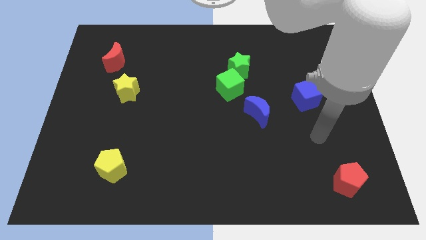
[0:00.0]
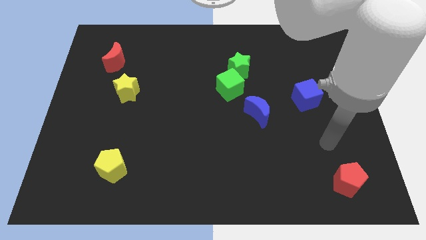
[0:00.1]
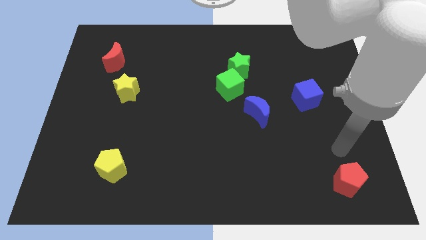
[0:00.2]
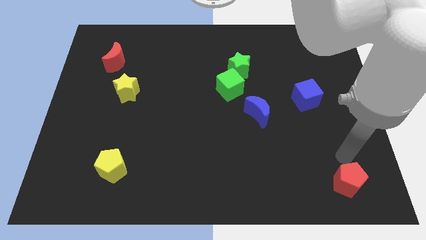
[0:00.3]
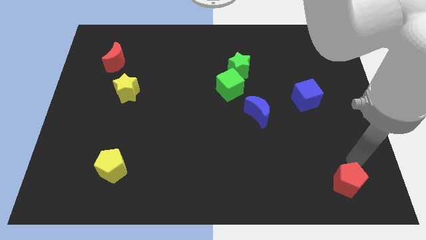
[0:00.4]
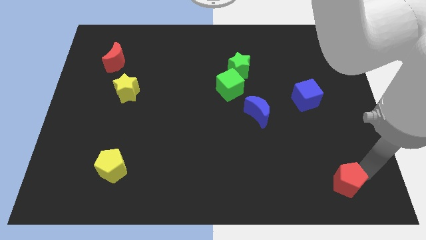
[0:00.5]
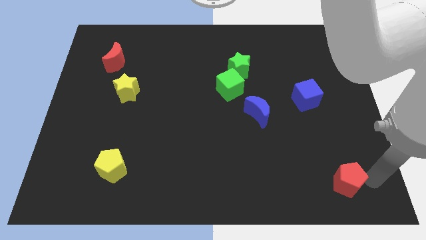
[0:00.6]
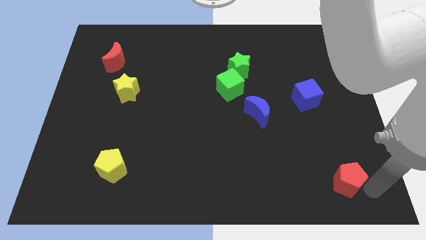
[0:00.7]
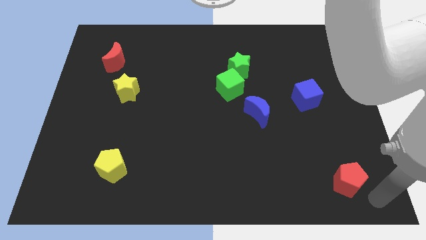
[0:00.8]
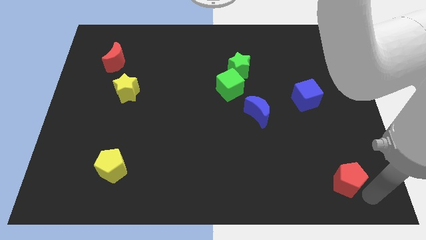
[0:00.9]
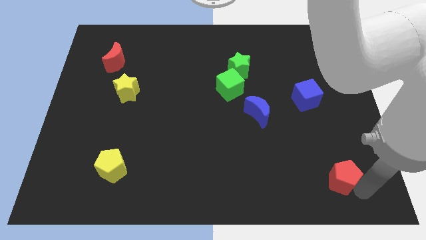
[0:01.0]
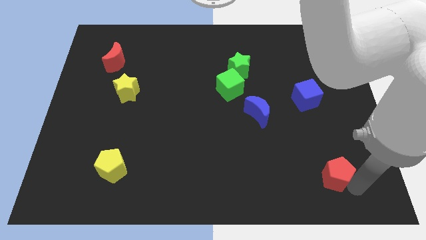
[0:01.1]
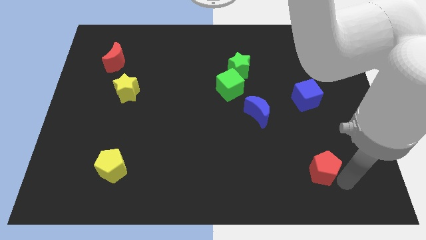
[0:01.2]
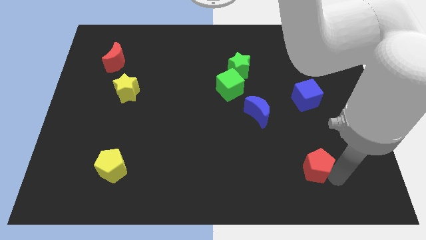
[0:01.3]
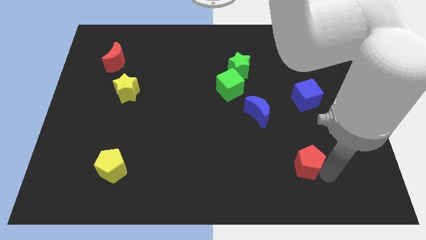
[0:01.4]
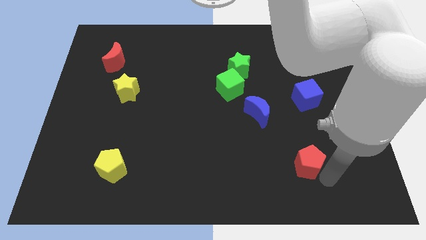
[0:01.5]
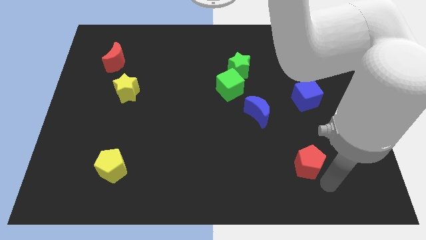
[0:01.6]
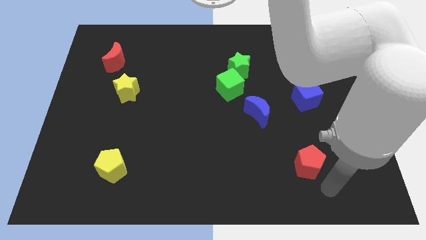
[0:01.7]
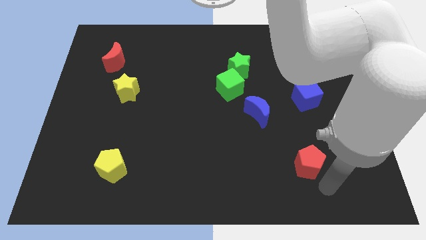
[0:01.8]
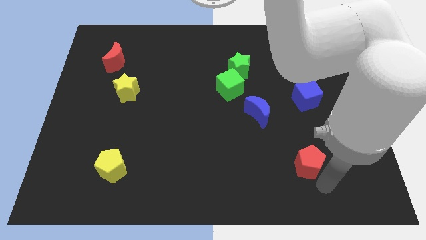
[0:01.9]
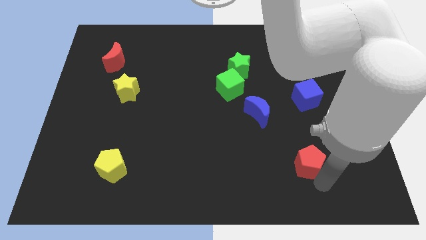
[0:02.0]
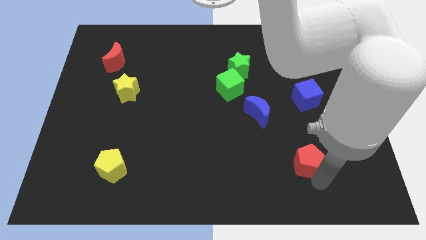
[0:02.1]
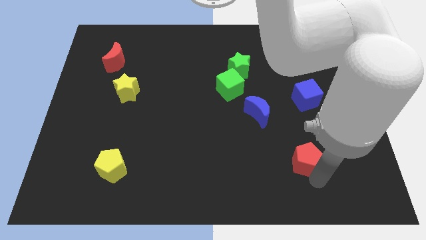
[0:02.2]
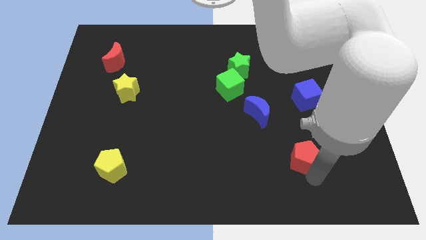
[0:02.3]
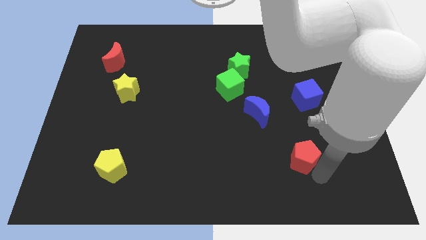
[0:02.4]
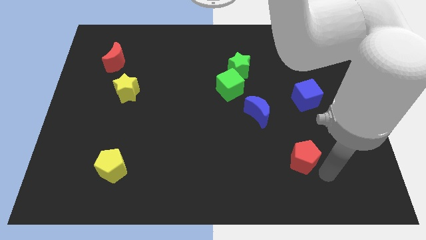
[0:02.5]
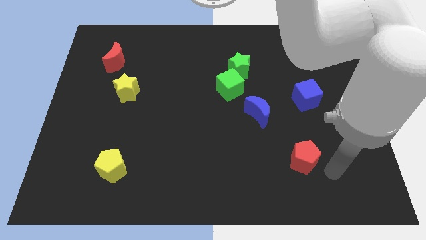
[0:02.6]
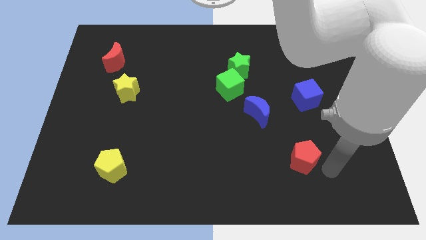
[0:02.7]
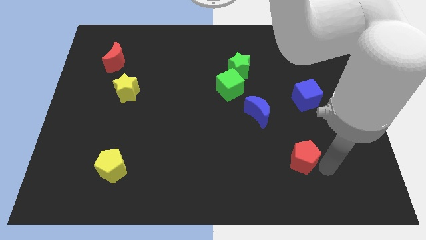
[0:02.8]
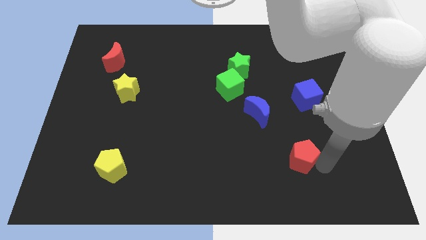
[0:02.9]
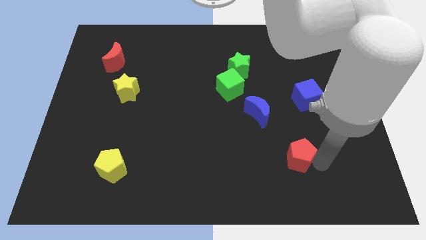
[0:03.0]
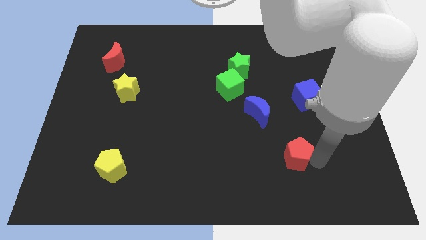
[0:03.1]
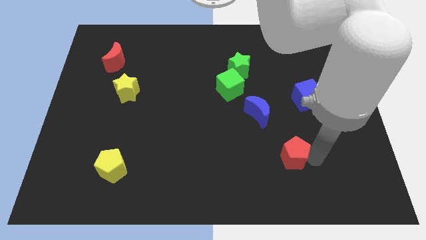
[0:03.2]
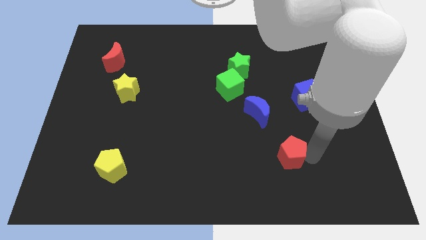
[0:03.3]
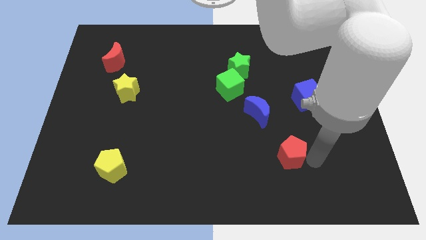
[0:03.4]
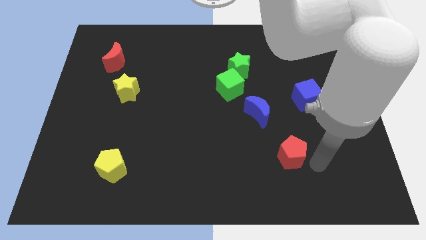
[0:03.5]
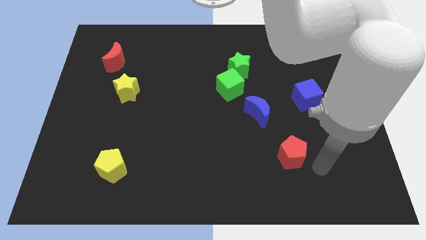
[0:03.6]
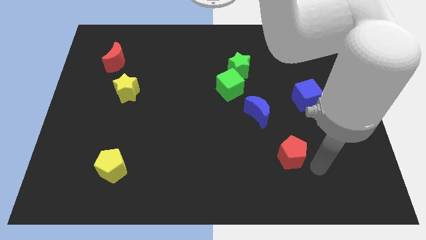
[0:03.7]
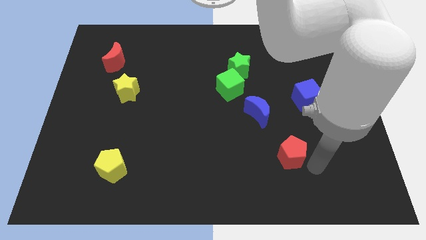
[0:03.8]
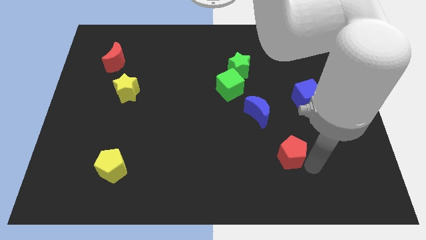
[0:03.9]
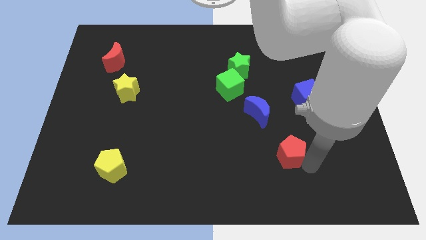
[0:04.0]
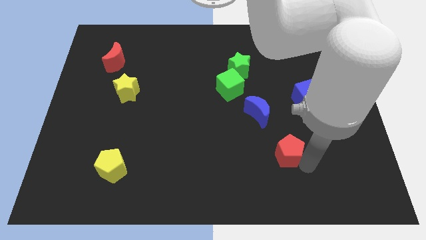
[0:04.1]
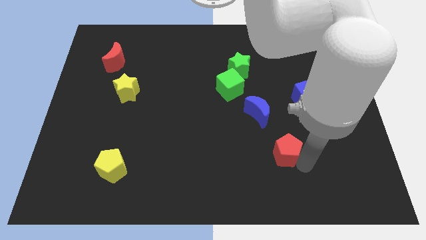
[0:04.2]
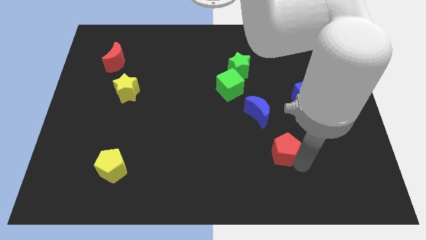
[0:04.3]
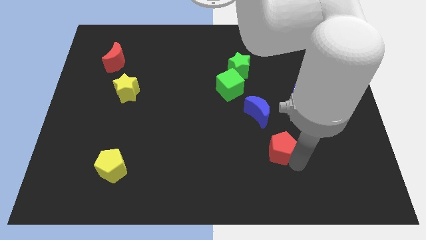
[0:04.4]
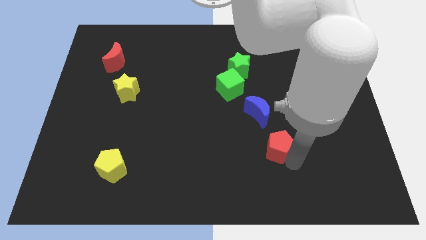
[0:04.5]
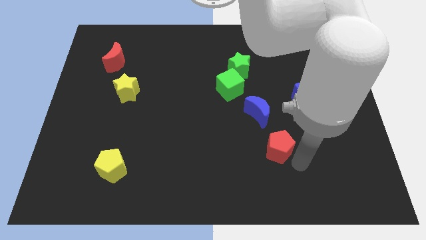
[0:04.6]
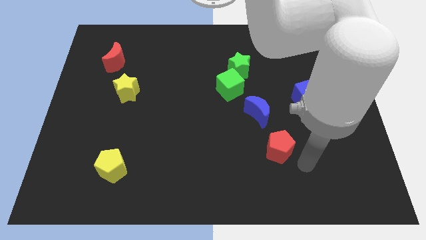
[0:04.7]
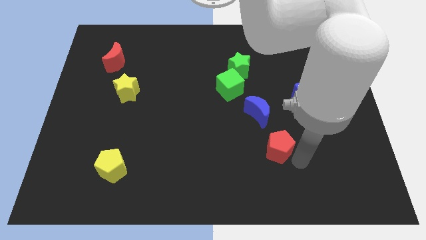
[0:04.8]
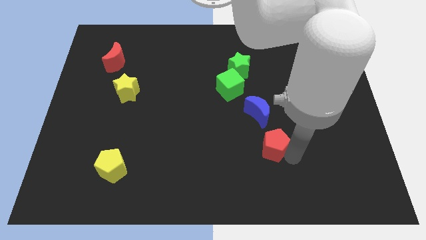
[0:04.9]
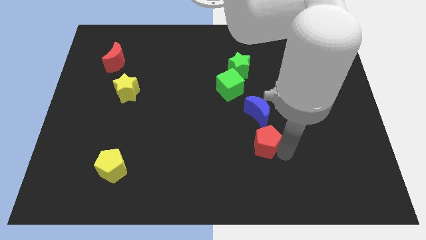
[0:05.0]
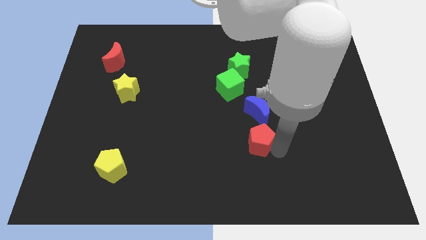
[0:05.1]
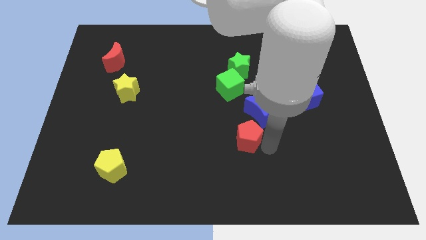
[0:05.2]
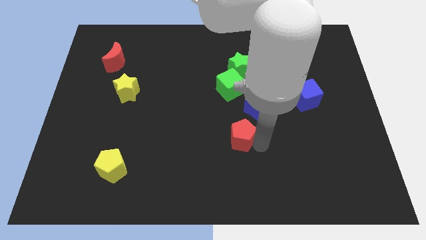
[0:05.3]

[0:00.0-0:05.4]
put the red pentagon below the green cube
